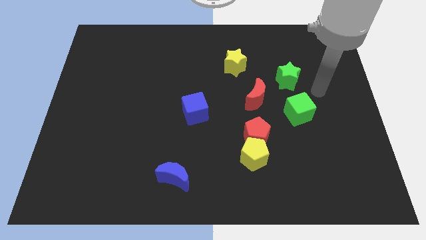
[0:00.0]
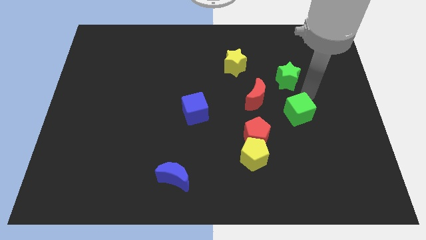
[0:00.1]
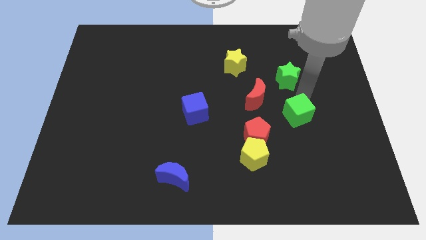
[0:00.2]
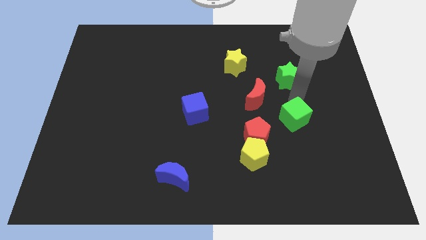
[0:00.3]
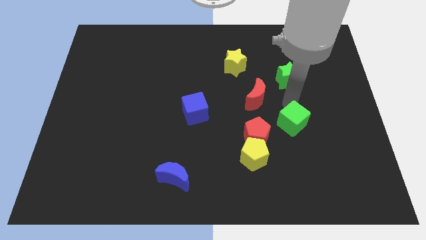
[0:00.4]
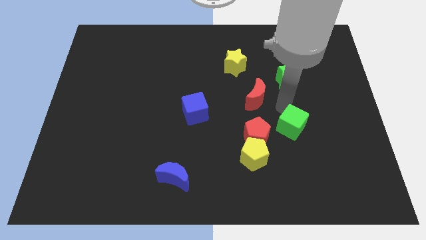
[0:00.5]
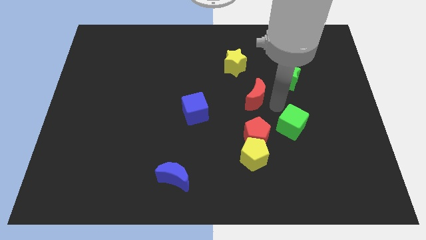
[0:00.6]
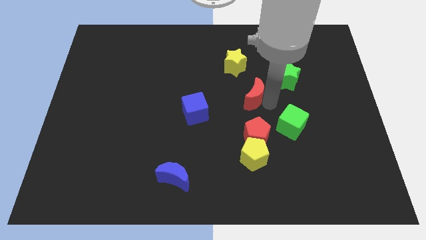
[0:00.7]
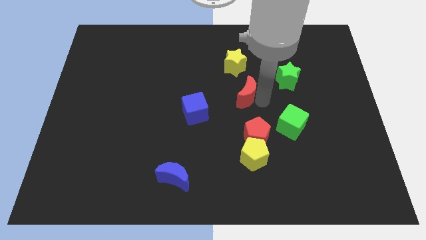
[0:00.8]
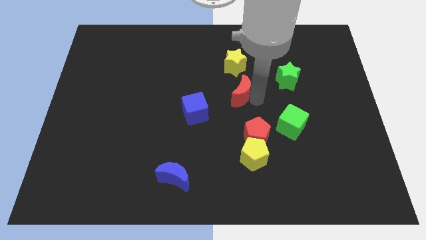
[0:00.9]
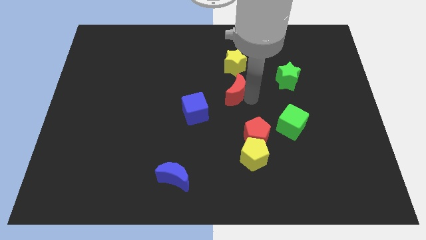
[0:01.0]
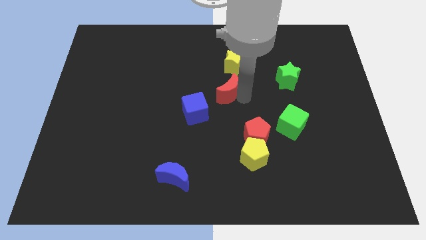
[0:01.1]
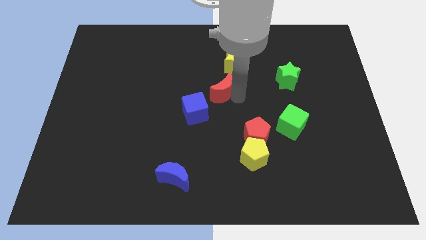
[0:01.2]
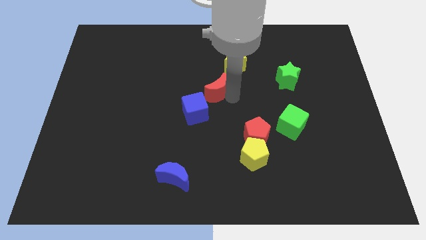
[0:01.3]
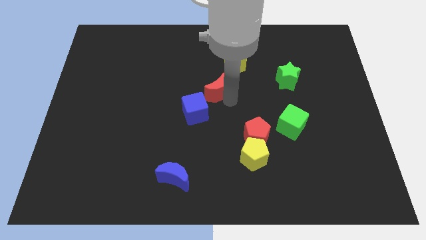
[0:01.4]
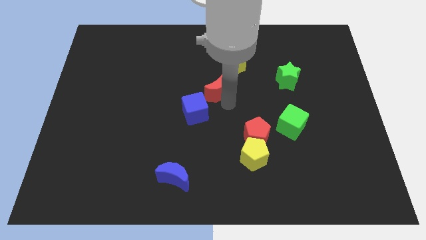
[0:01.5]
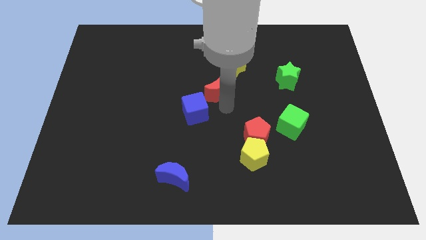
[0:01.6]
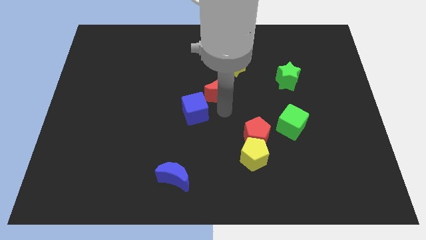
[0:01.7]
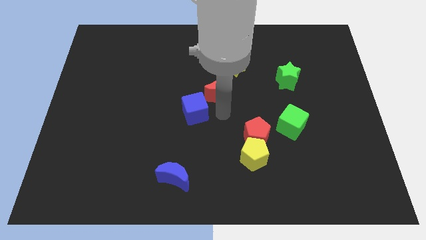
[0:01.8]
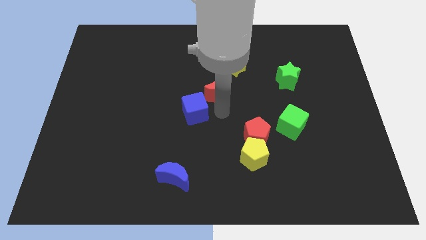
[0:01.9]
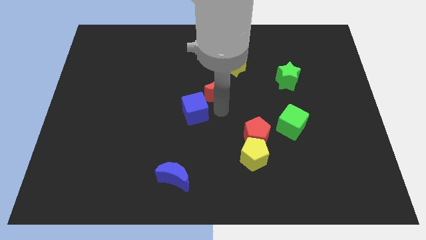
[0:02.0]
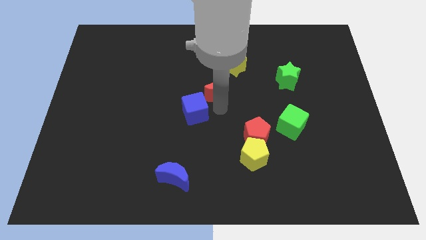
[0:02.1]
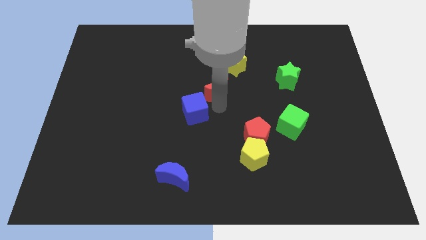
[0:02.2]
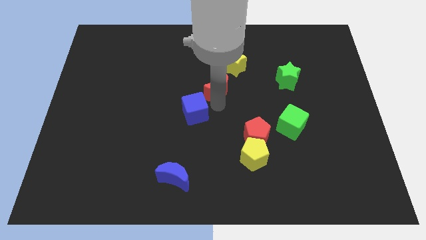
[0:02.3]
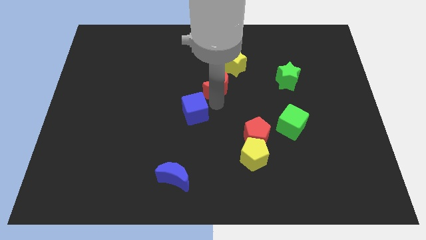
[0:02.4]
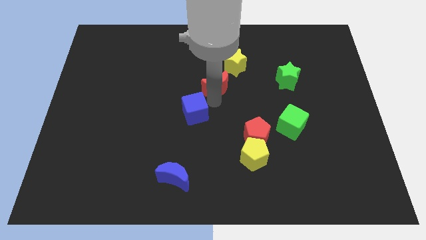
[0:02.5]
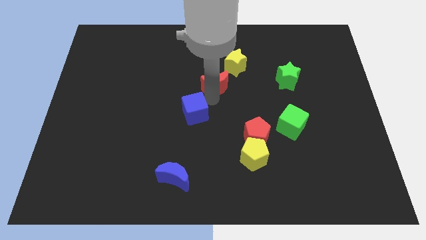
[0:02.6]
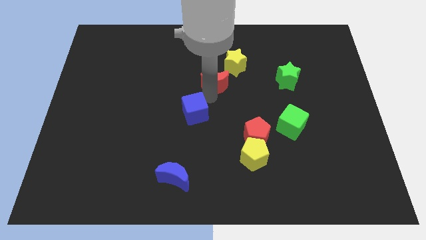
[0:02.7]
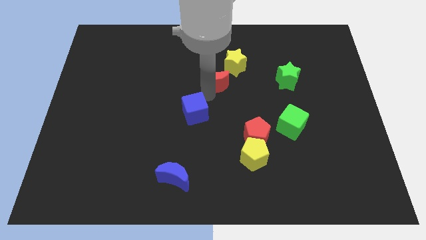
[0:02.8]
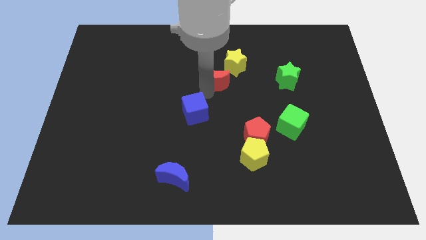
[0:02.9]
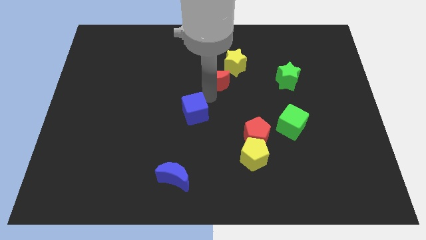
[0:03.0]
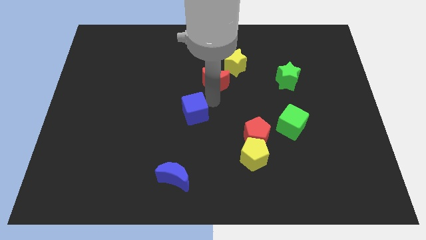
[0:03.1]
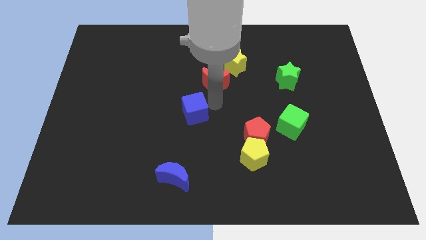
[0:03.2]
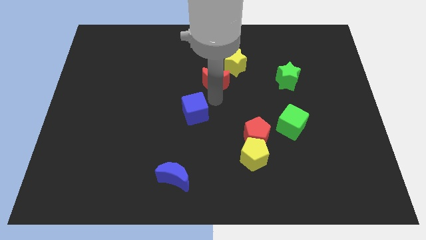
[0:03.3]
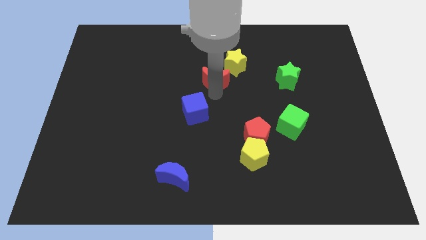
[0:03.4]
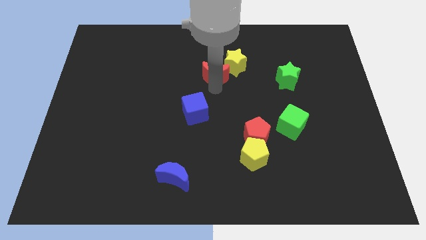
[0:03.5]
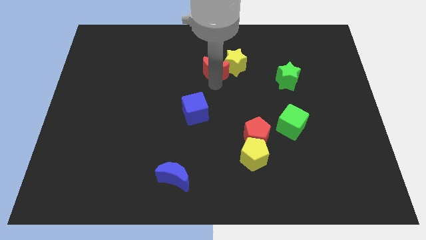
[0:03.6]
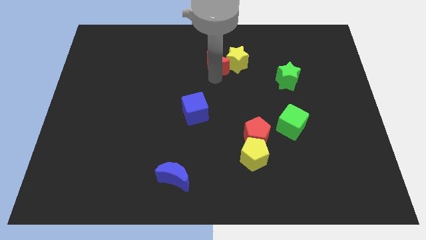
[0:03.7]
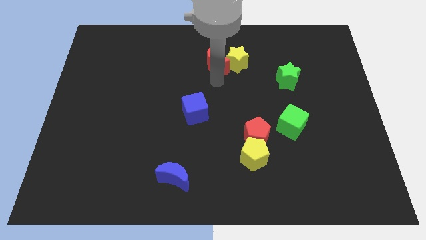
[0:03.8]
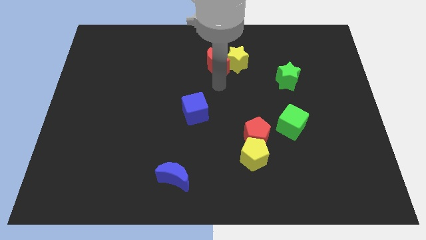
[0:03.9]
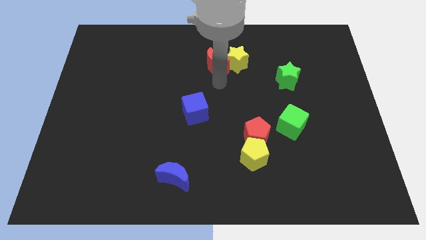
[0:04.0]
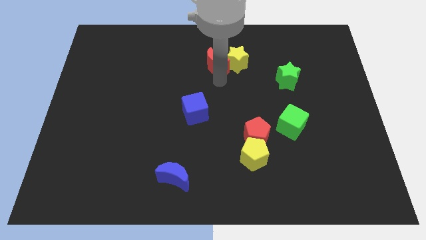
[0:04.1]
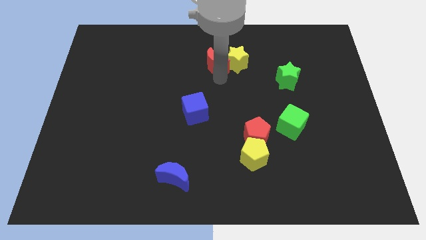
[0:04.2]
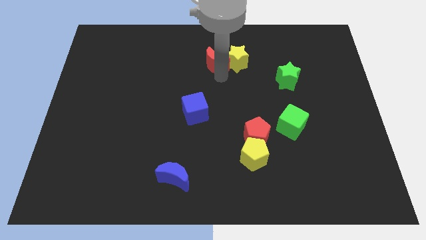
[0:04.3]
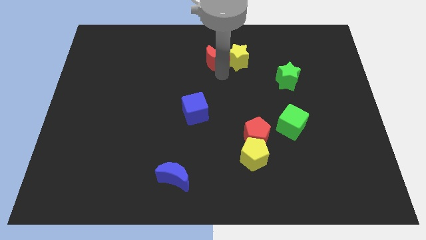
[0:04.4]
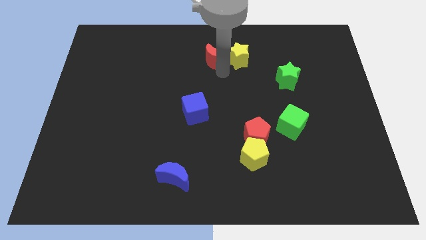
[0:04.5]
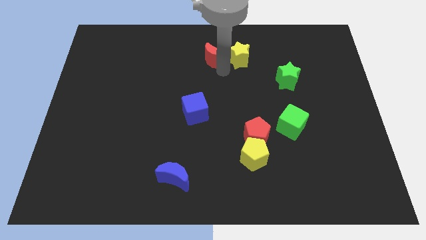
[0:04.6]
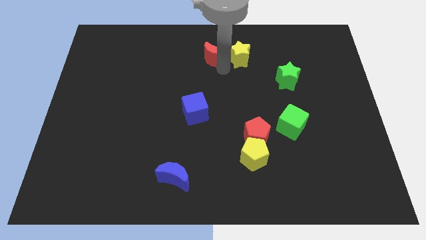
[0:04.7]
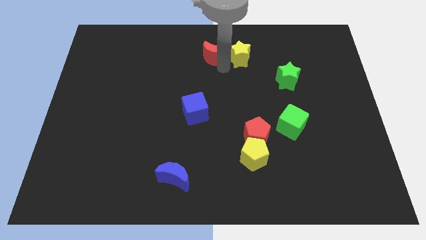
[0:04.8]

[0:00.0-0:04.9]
put the red moon to the top side

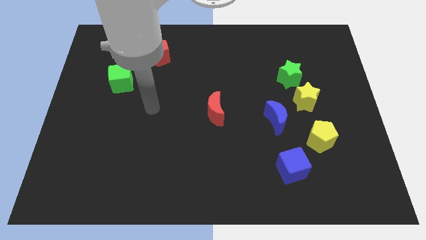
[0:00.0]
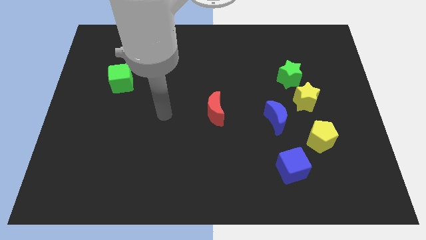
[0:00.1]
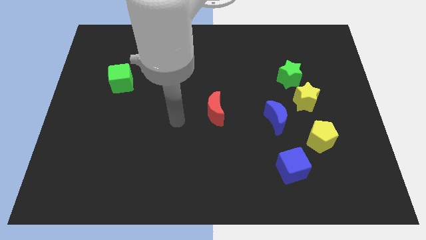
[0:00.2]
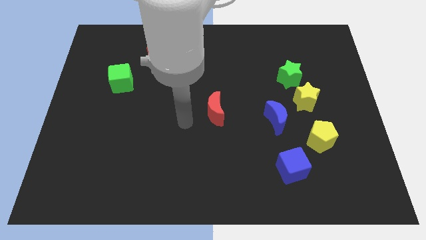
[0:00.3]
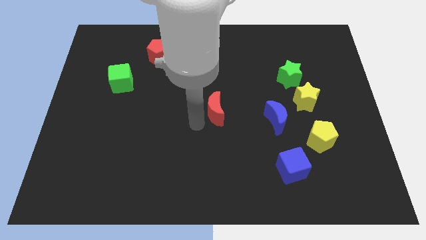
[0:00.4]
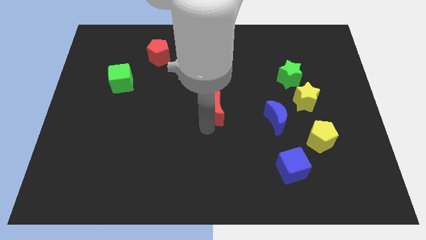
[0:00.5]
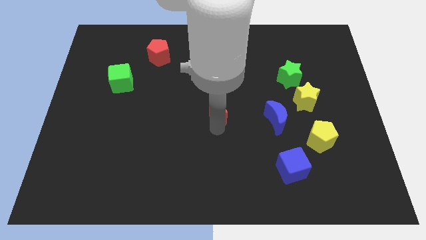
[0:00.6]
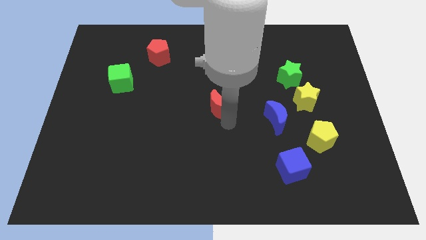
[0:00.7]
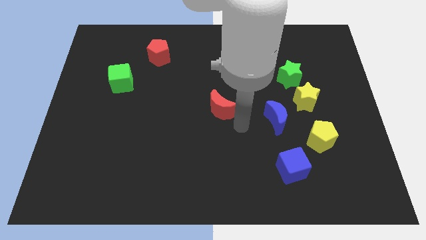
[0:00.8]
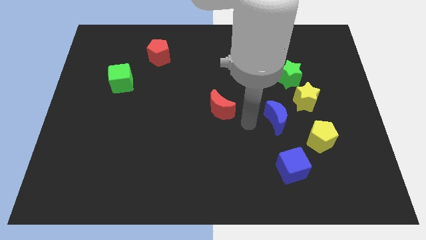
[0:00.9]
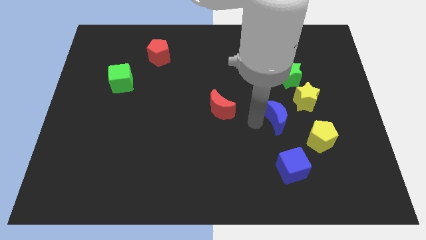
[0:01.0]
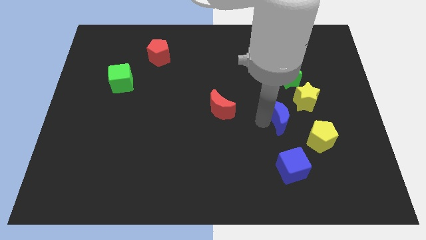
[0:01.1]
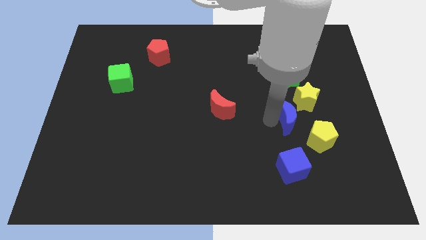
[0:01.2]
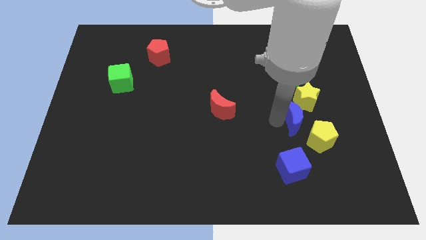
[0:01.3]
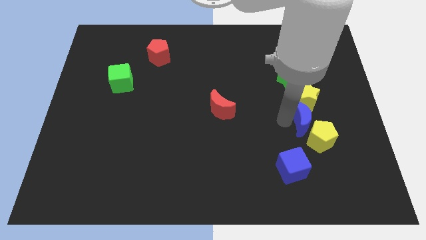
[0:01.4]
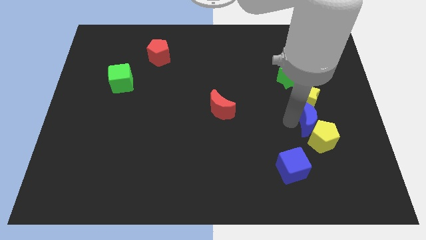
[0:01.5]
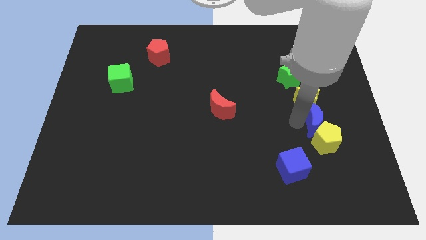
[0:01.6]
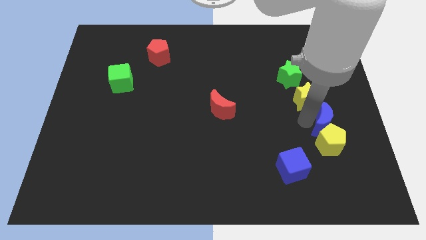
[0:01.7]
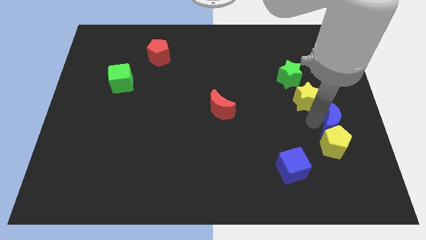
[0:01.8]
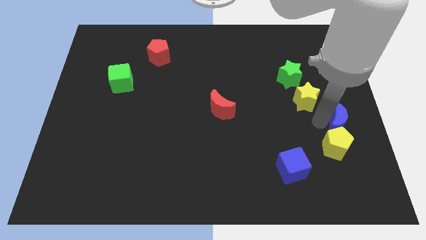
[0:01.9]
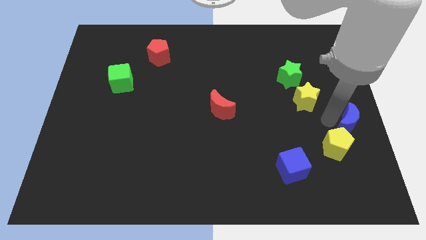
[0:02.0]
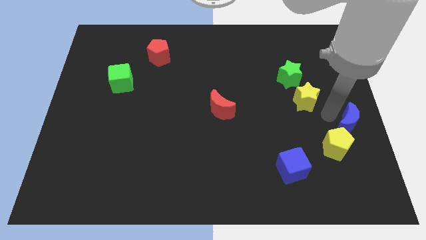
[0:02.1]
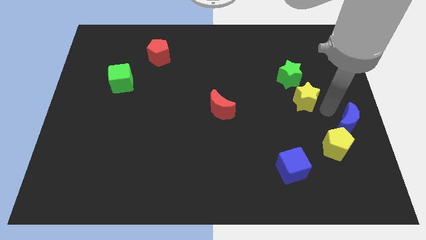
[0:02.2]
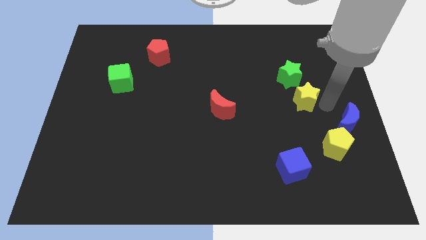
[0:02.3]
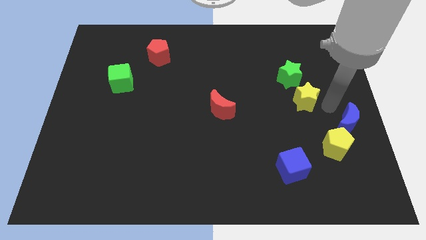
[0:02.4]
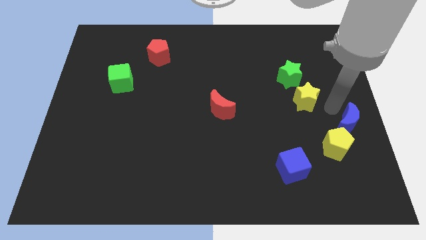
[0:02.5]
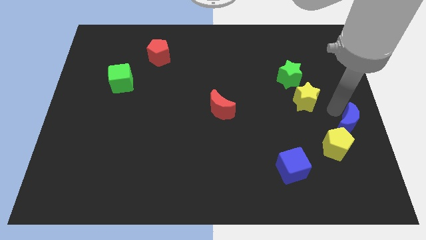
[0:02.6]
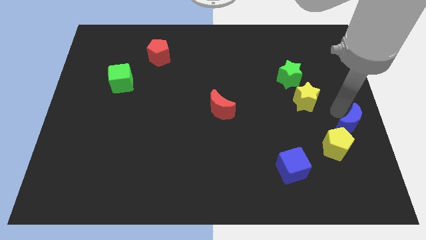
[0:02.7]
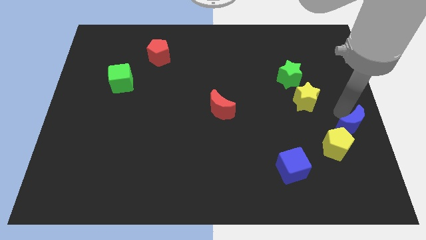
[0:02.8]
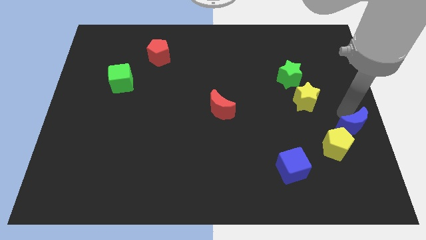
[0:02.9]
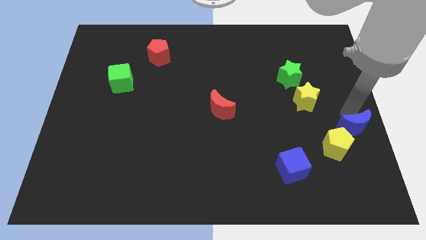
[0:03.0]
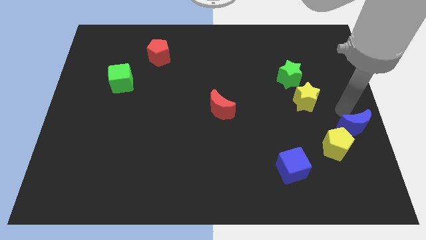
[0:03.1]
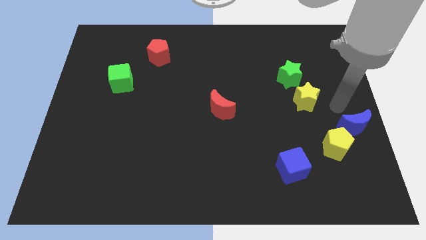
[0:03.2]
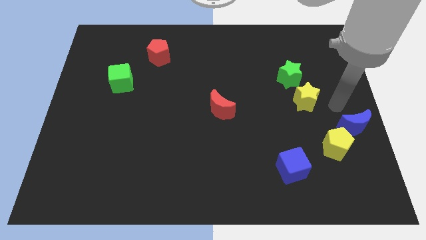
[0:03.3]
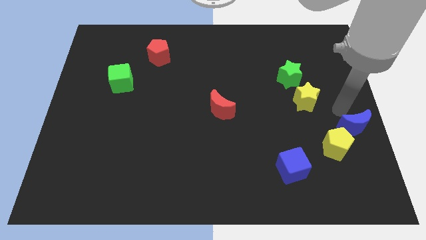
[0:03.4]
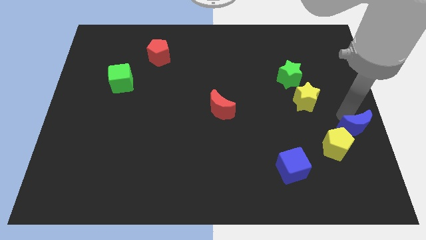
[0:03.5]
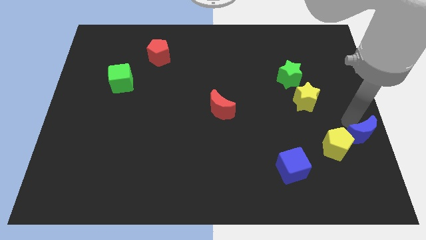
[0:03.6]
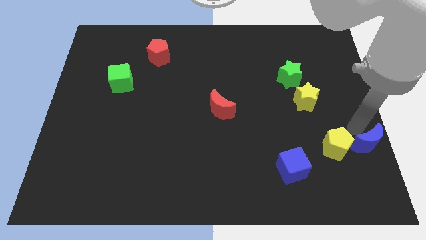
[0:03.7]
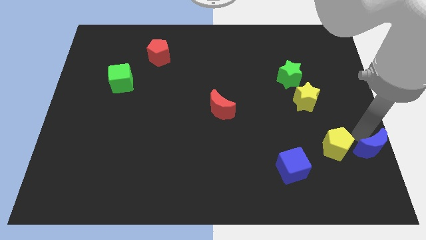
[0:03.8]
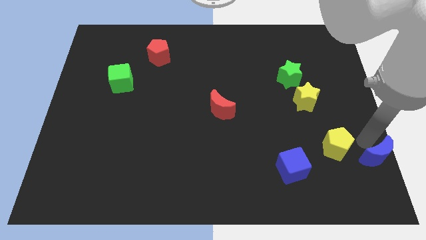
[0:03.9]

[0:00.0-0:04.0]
push the blue moon to the lower right corner
